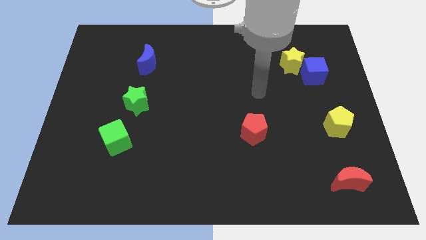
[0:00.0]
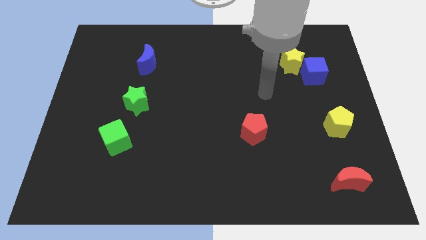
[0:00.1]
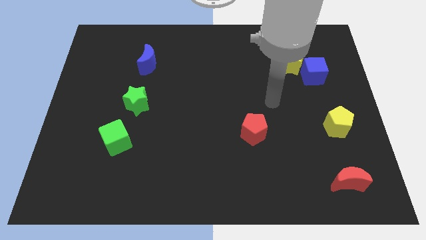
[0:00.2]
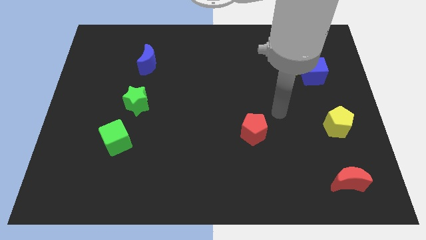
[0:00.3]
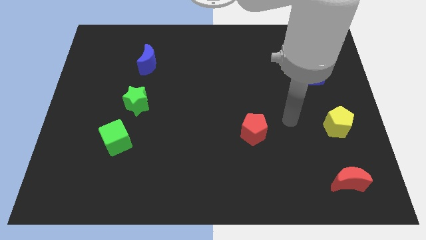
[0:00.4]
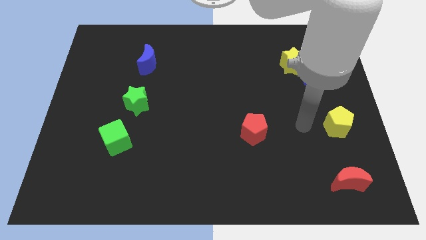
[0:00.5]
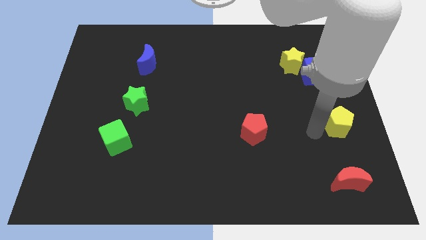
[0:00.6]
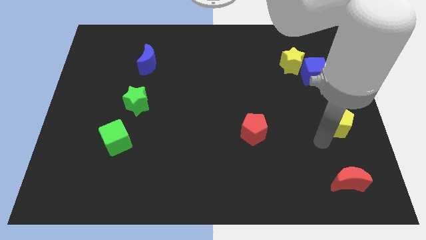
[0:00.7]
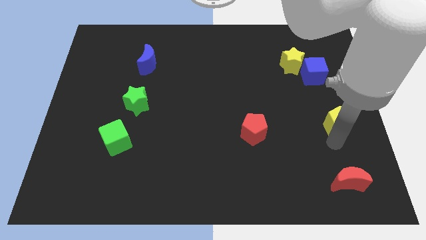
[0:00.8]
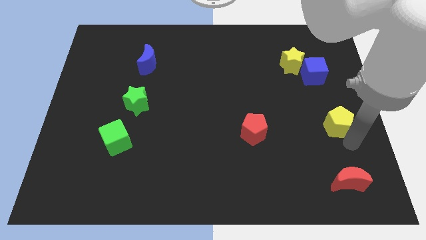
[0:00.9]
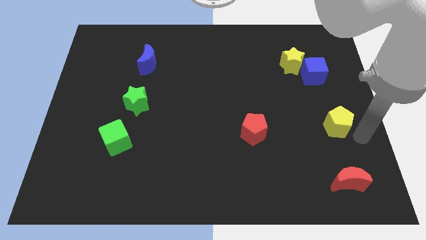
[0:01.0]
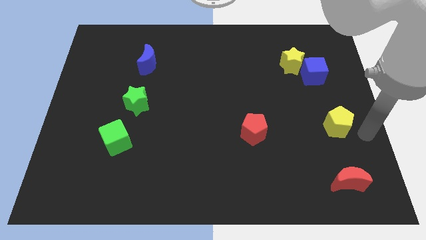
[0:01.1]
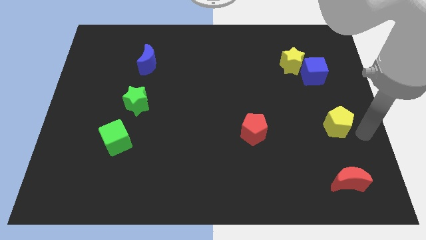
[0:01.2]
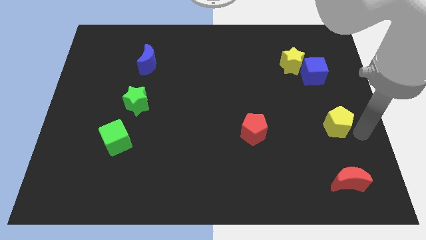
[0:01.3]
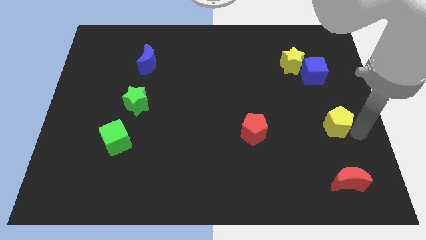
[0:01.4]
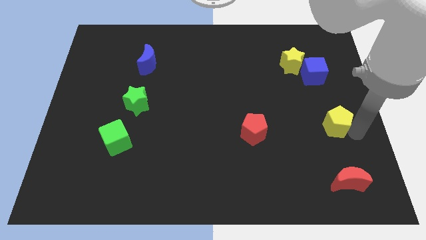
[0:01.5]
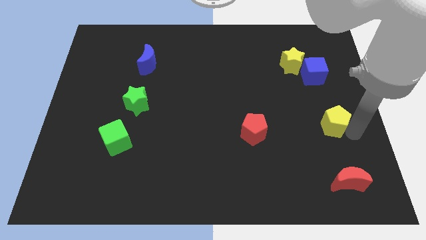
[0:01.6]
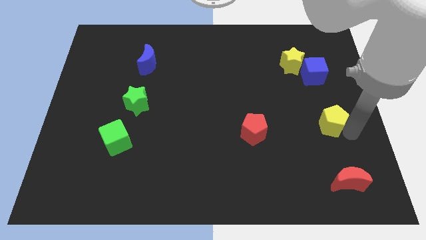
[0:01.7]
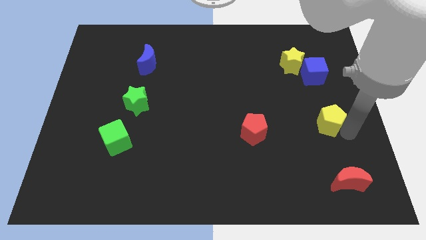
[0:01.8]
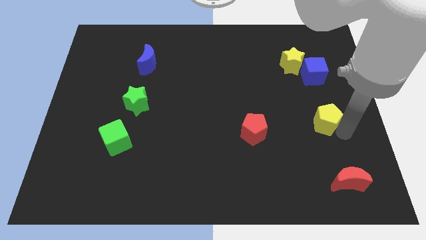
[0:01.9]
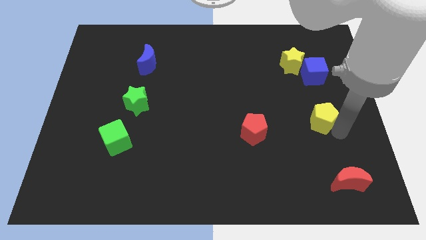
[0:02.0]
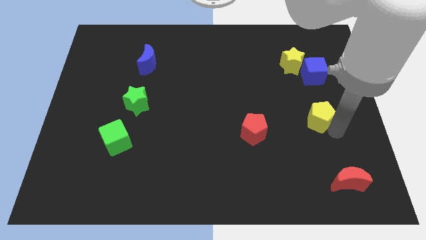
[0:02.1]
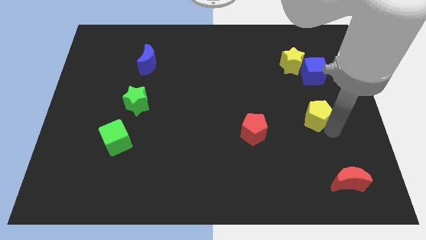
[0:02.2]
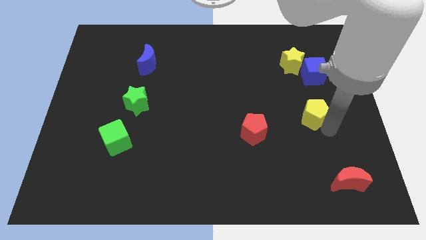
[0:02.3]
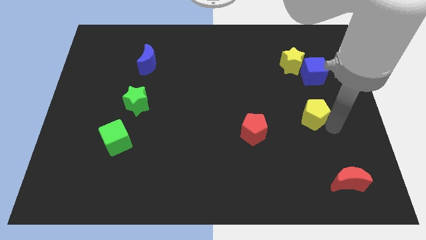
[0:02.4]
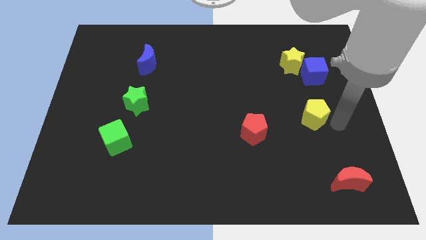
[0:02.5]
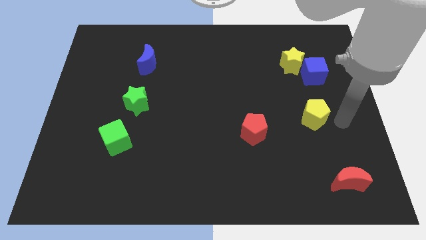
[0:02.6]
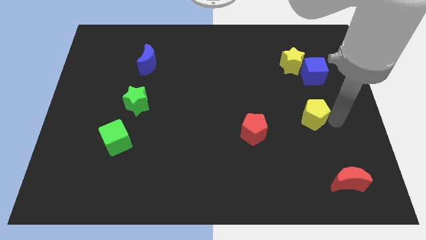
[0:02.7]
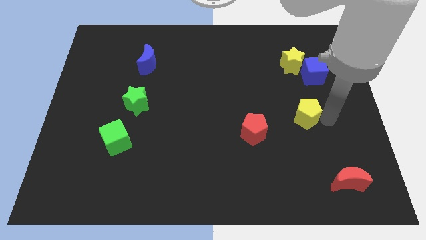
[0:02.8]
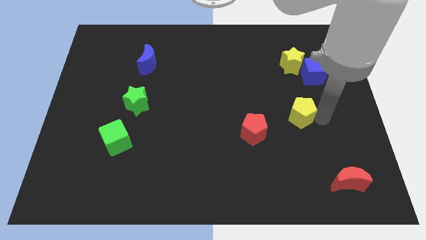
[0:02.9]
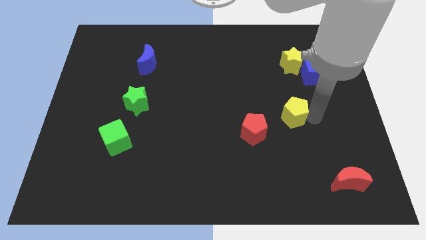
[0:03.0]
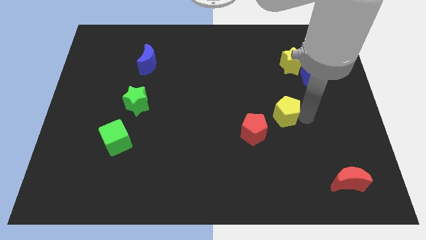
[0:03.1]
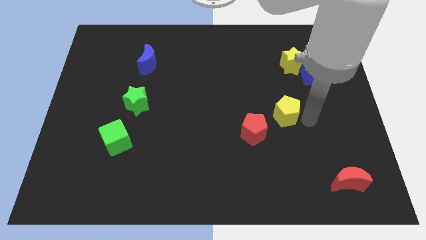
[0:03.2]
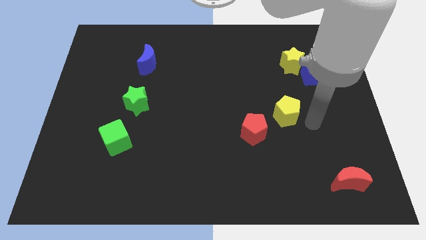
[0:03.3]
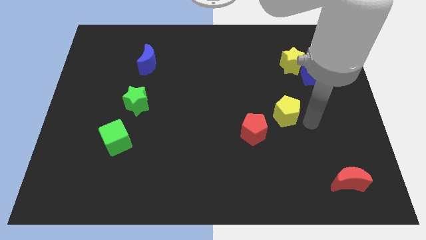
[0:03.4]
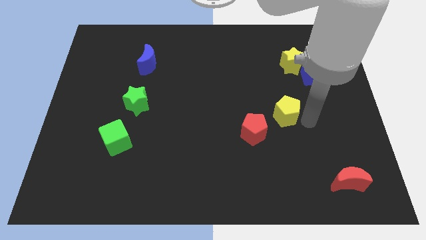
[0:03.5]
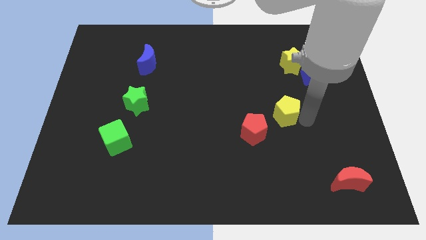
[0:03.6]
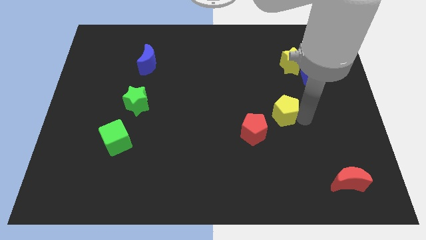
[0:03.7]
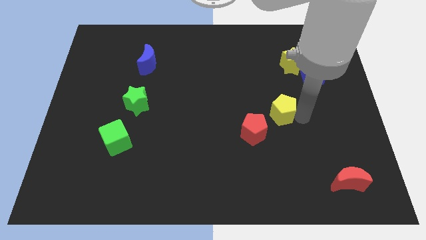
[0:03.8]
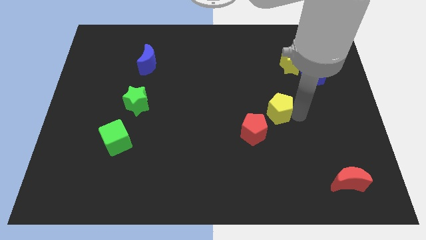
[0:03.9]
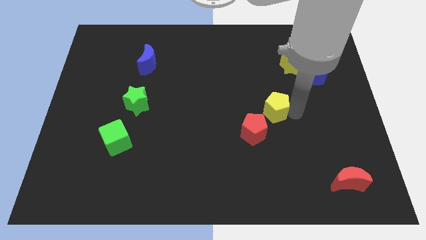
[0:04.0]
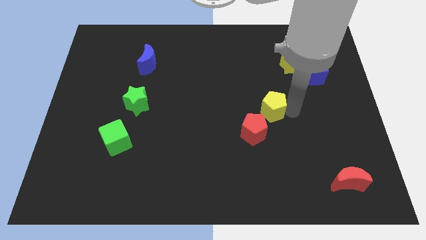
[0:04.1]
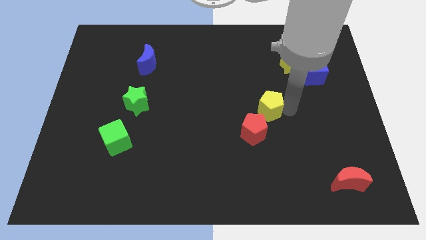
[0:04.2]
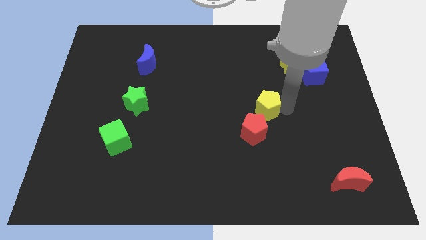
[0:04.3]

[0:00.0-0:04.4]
push the yellow pentagon to the center of the board

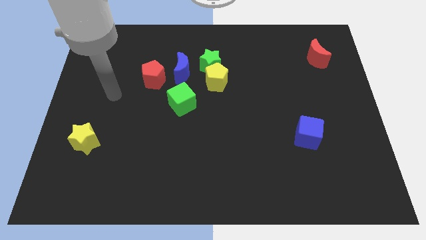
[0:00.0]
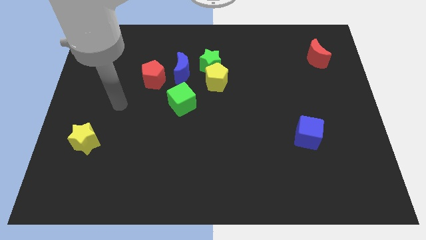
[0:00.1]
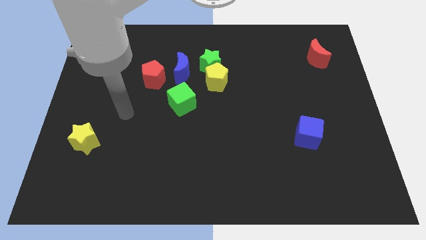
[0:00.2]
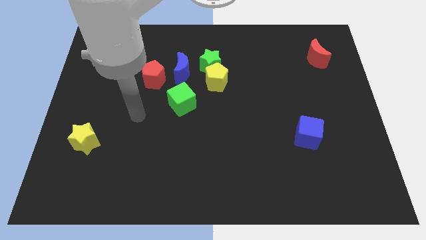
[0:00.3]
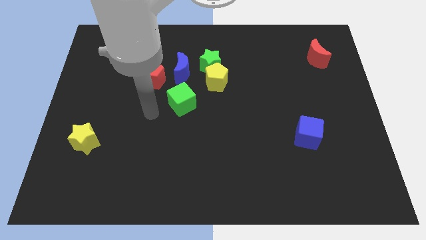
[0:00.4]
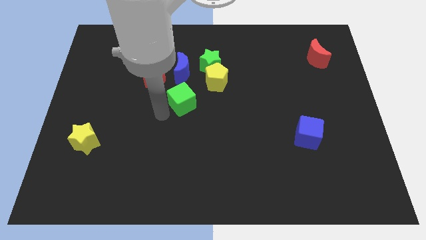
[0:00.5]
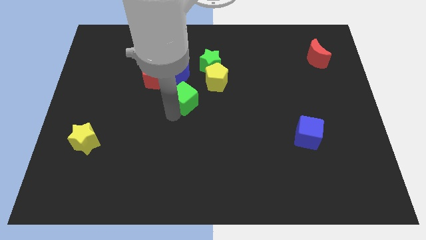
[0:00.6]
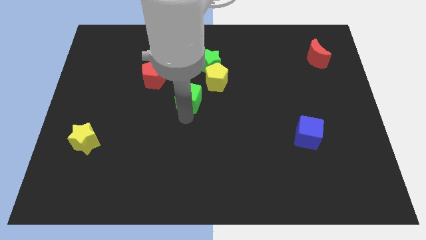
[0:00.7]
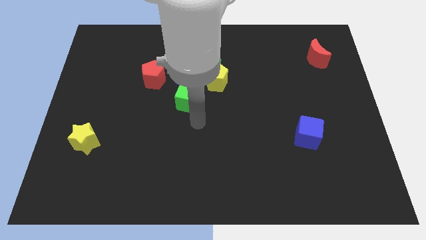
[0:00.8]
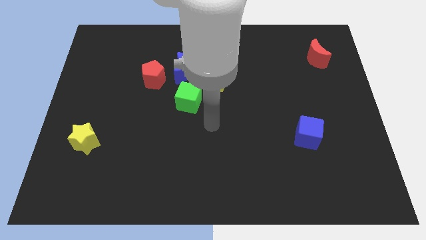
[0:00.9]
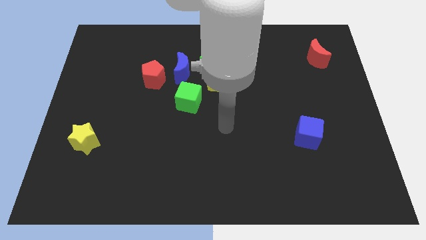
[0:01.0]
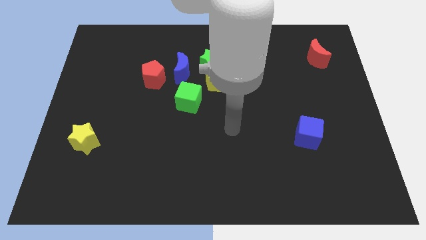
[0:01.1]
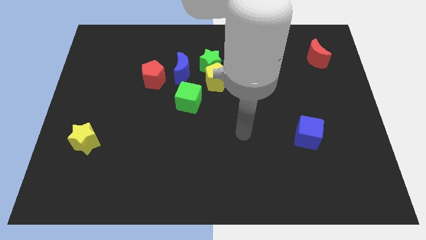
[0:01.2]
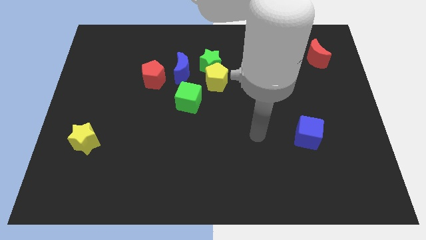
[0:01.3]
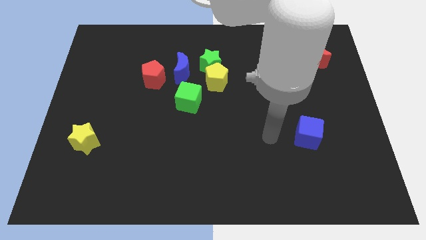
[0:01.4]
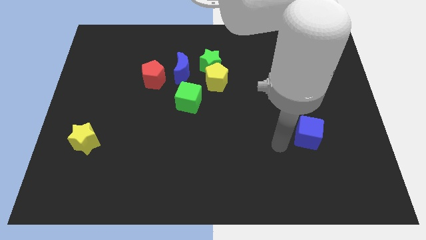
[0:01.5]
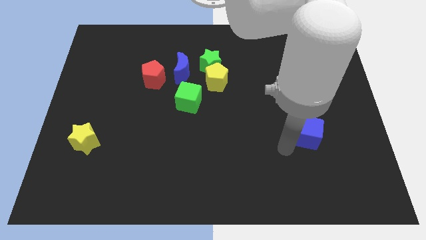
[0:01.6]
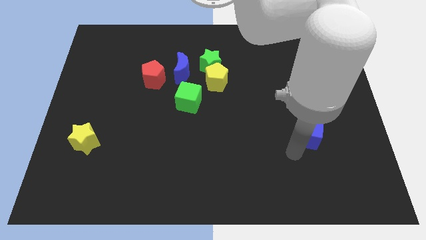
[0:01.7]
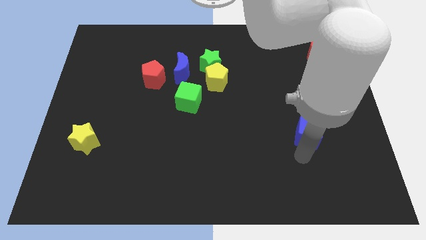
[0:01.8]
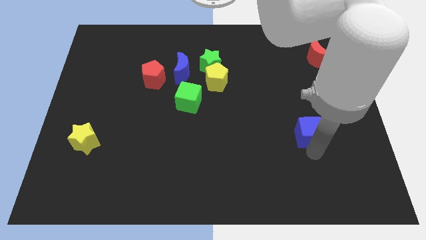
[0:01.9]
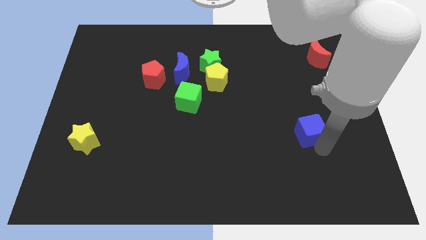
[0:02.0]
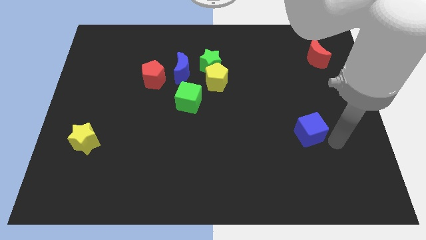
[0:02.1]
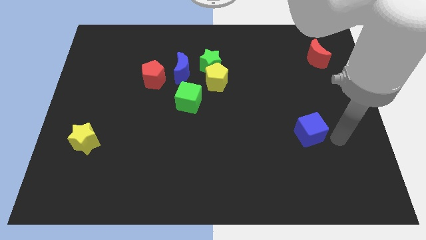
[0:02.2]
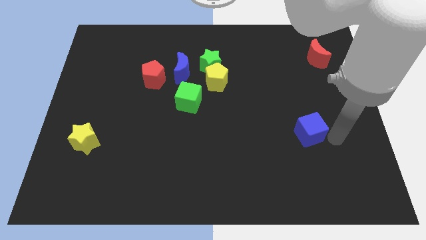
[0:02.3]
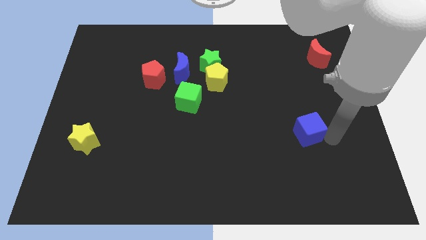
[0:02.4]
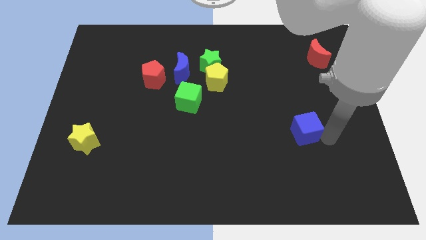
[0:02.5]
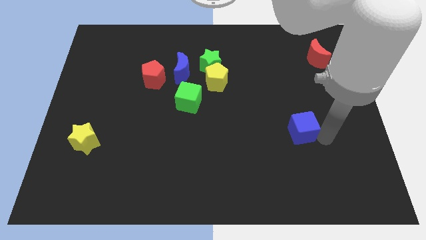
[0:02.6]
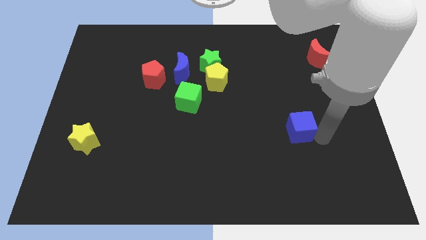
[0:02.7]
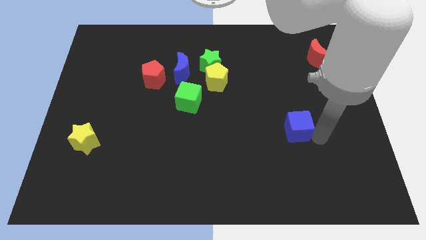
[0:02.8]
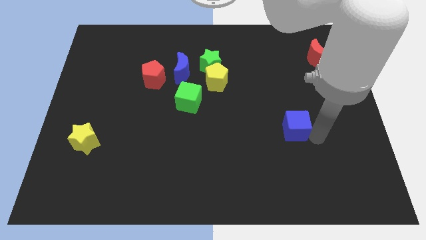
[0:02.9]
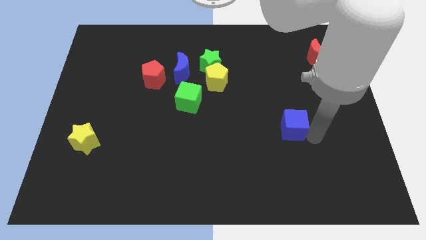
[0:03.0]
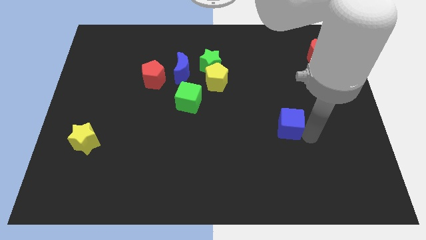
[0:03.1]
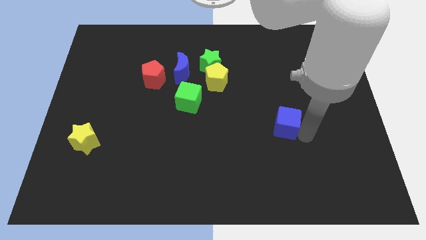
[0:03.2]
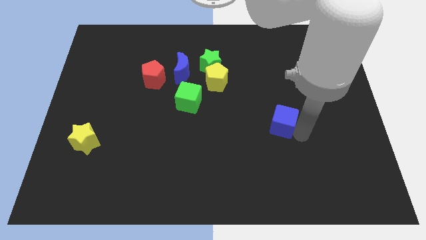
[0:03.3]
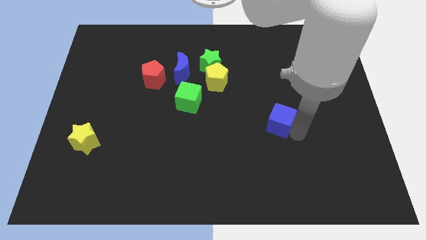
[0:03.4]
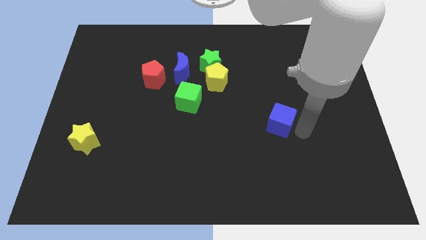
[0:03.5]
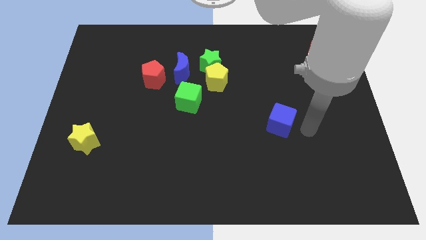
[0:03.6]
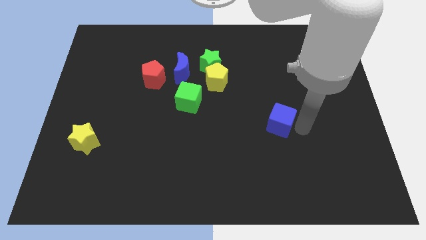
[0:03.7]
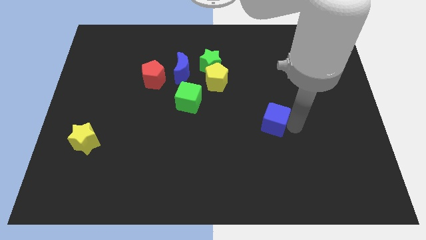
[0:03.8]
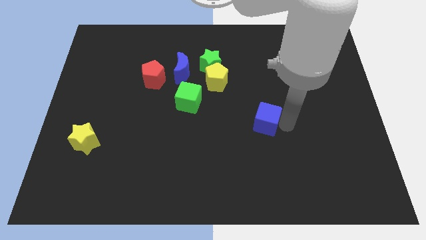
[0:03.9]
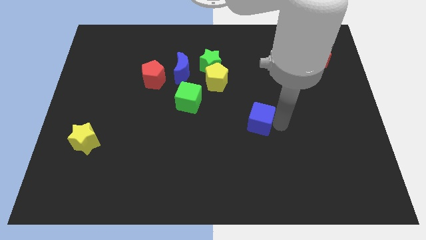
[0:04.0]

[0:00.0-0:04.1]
put the blue cube to the center of the board
